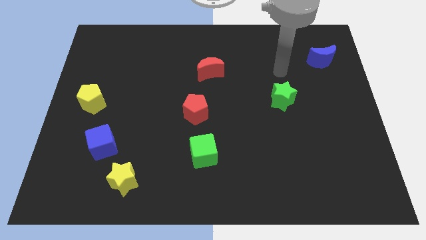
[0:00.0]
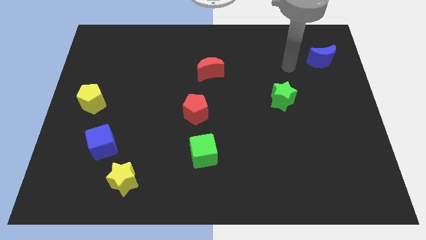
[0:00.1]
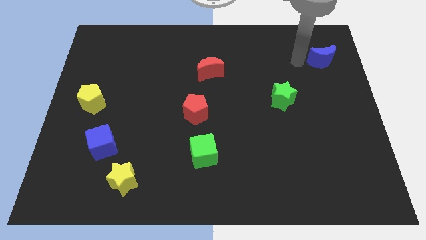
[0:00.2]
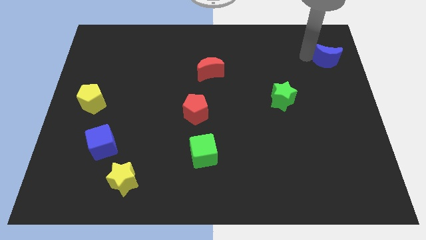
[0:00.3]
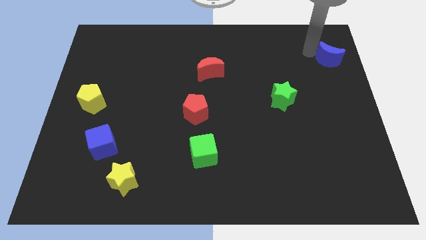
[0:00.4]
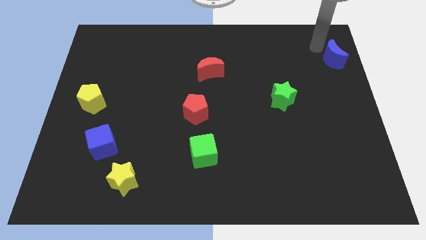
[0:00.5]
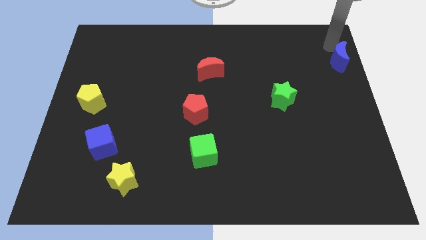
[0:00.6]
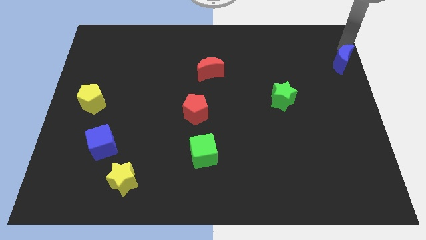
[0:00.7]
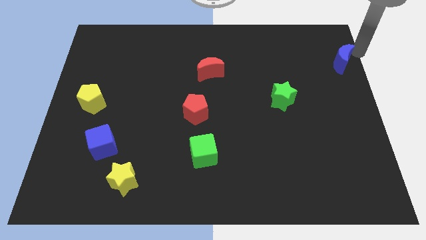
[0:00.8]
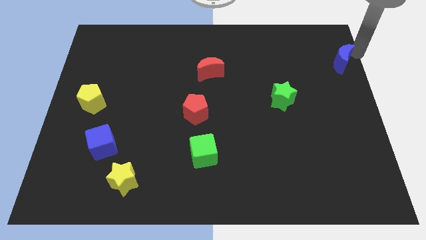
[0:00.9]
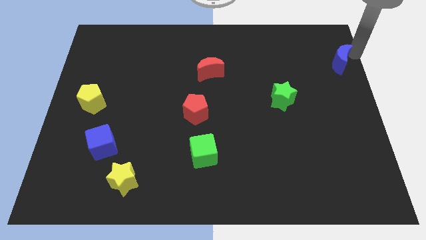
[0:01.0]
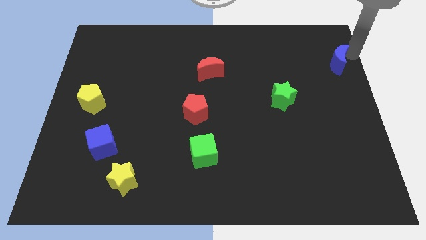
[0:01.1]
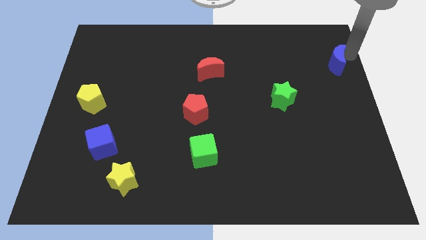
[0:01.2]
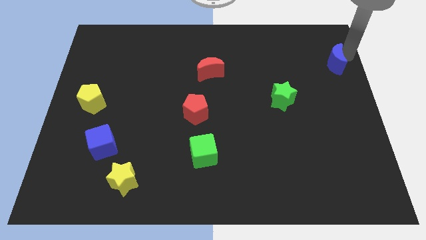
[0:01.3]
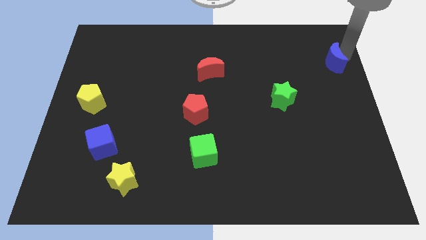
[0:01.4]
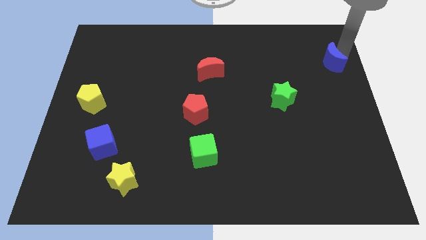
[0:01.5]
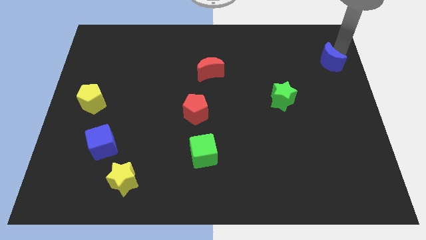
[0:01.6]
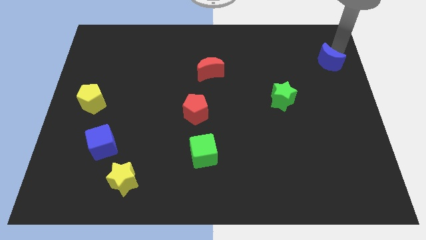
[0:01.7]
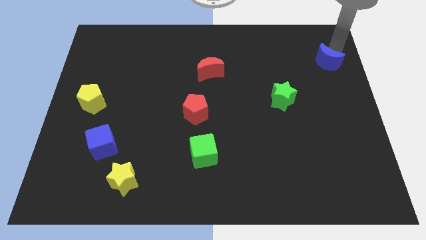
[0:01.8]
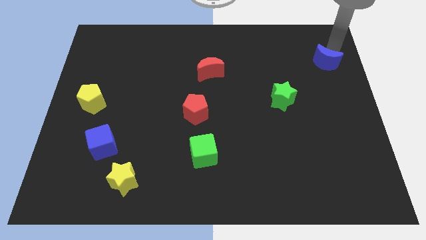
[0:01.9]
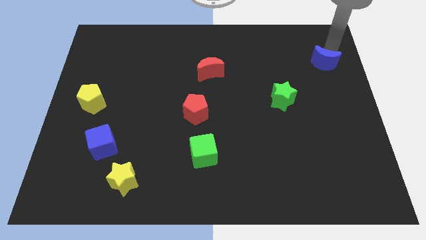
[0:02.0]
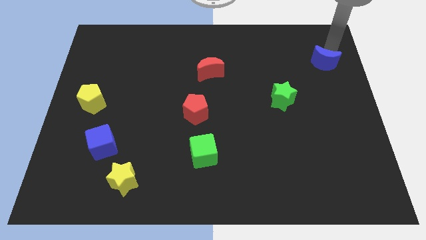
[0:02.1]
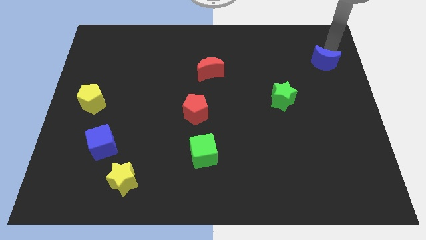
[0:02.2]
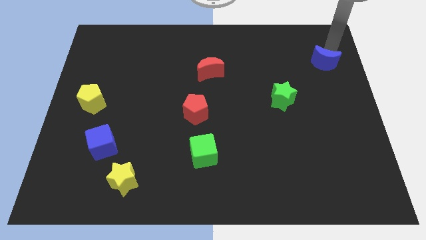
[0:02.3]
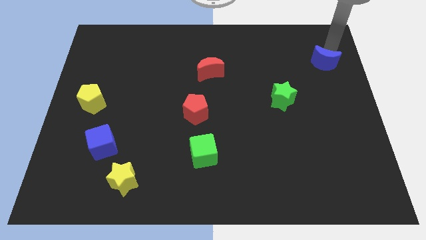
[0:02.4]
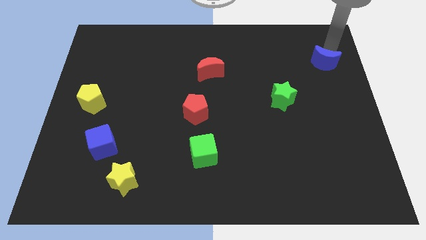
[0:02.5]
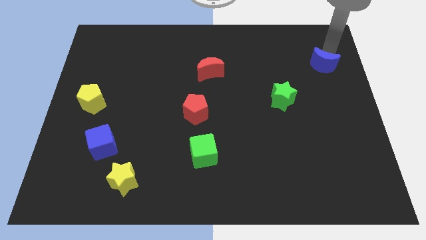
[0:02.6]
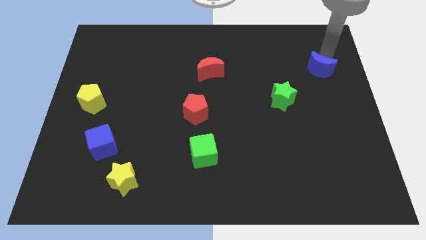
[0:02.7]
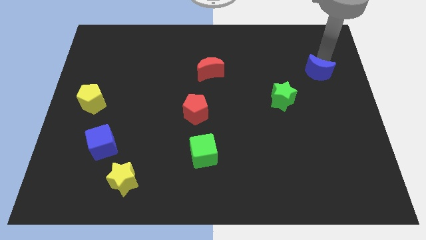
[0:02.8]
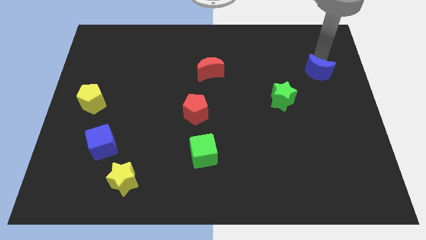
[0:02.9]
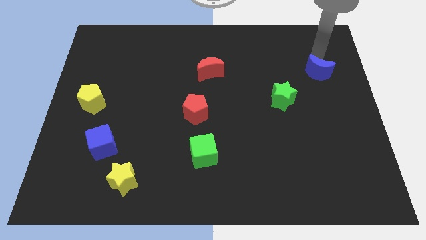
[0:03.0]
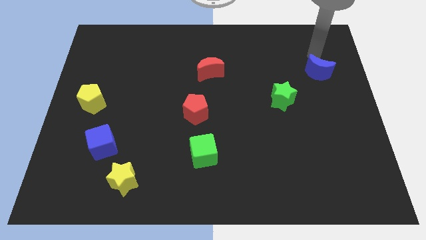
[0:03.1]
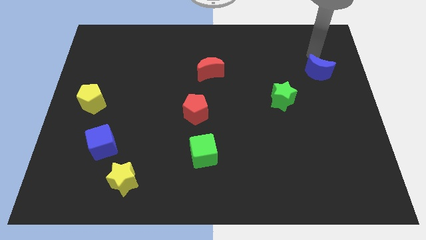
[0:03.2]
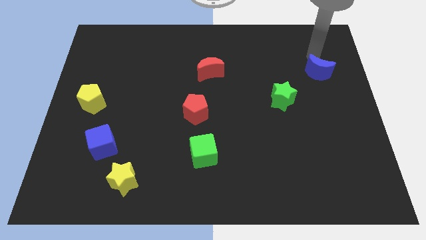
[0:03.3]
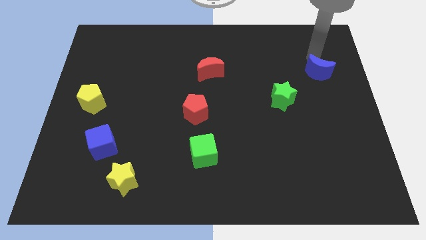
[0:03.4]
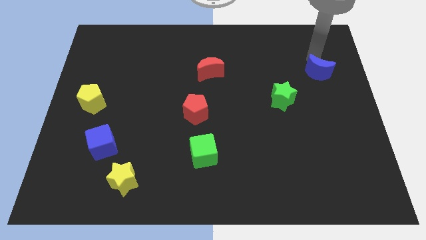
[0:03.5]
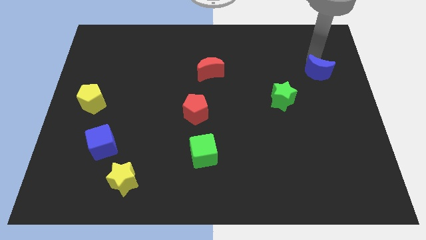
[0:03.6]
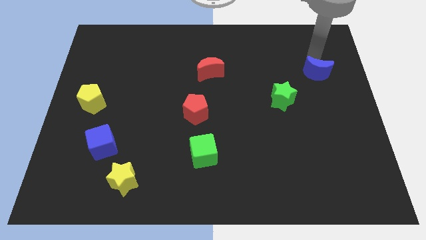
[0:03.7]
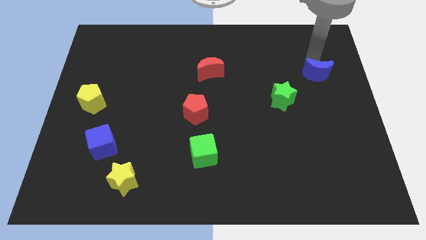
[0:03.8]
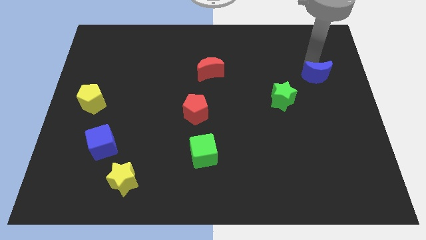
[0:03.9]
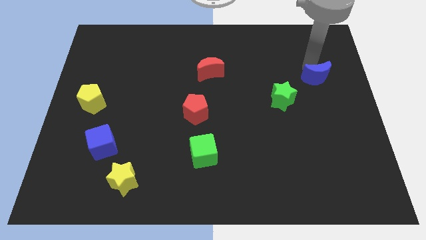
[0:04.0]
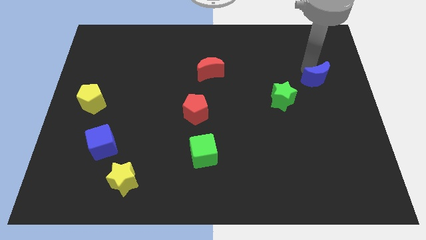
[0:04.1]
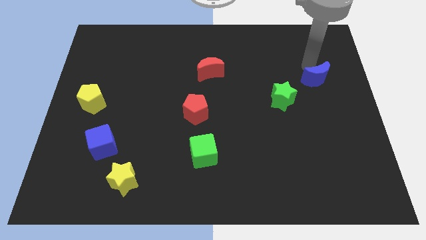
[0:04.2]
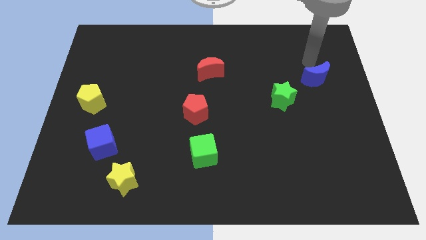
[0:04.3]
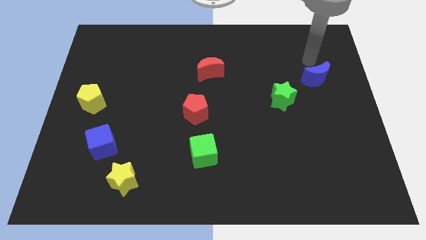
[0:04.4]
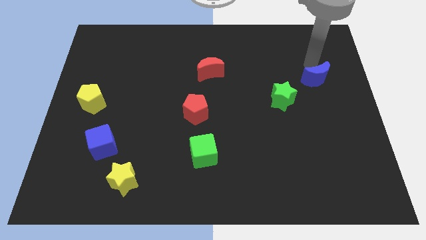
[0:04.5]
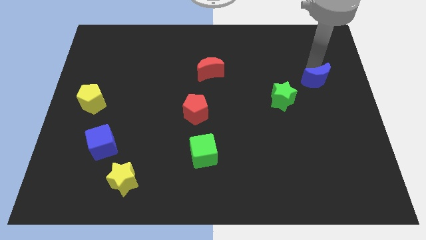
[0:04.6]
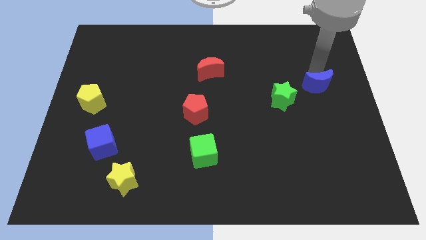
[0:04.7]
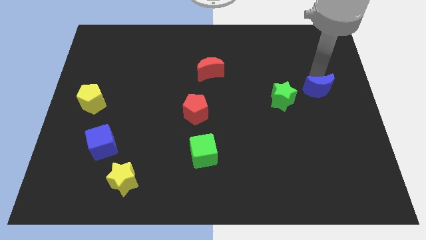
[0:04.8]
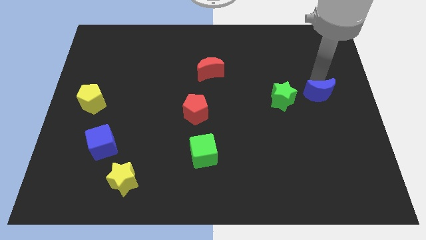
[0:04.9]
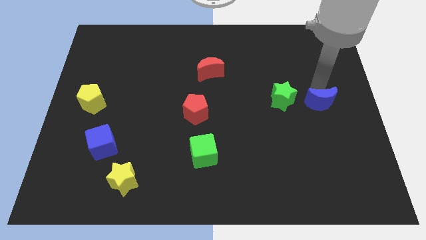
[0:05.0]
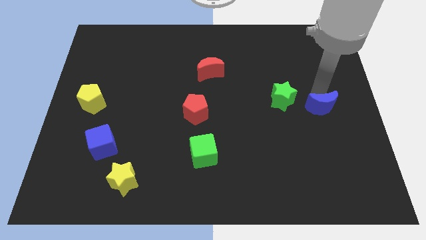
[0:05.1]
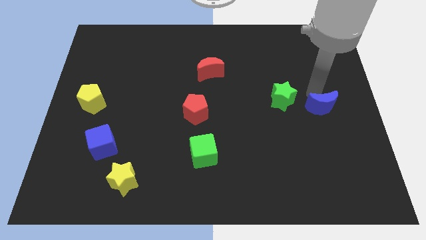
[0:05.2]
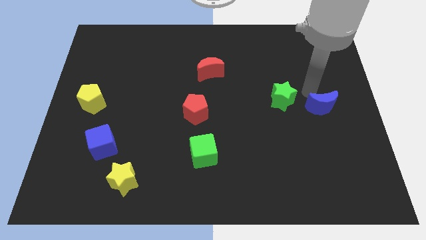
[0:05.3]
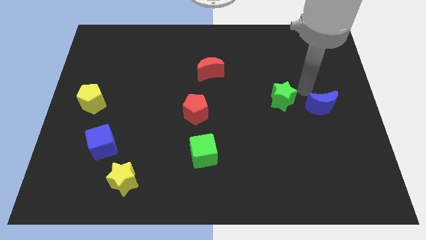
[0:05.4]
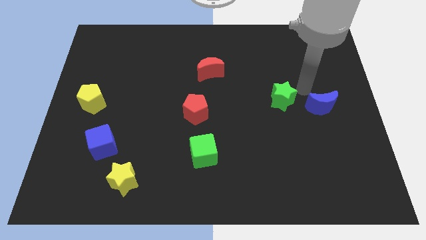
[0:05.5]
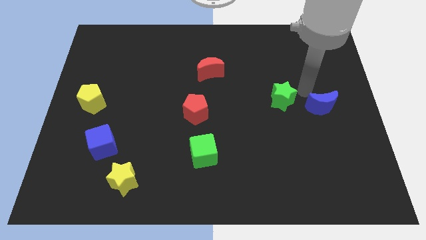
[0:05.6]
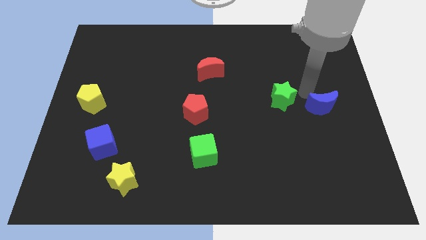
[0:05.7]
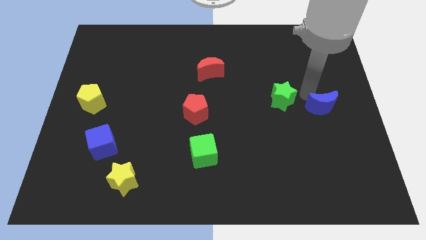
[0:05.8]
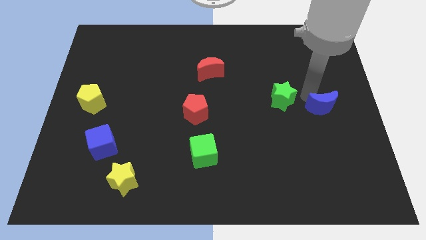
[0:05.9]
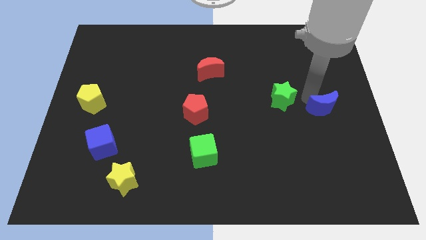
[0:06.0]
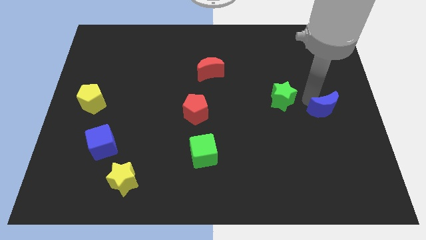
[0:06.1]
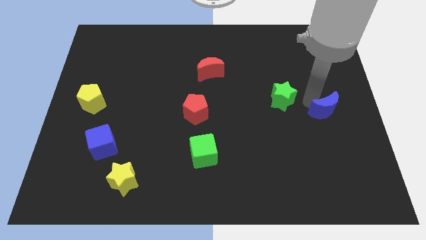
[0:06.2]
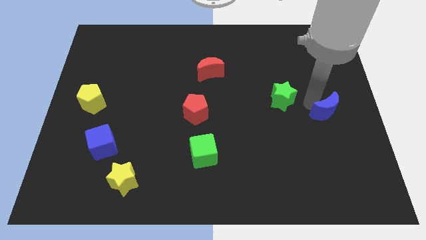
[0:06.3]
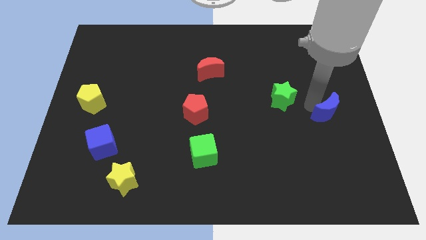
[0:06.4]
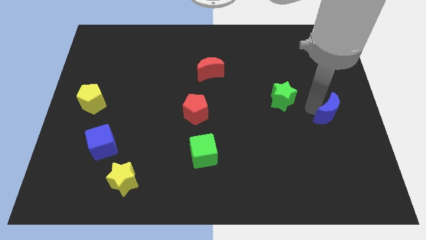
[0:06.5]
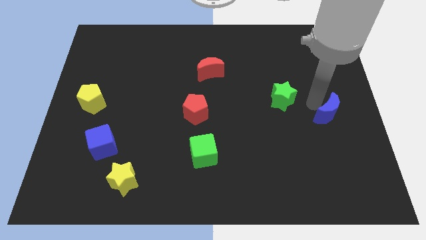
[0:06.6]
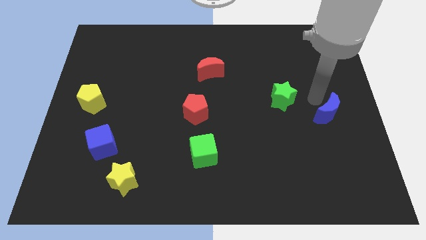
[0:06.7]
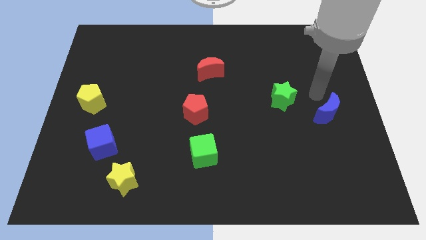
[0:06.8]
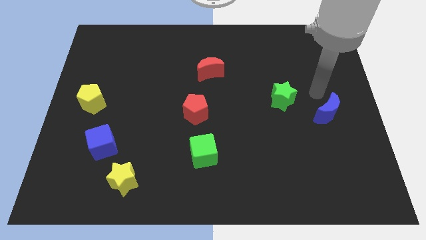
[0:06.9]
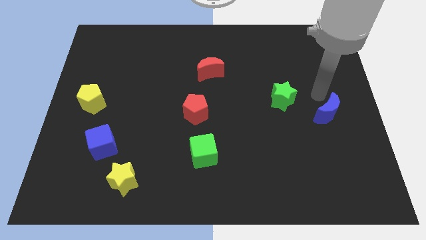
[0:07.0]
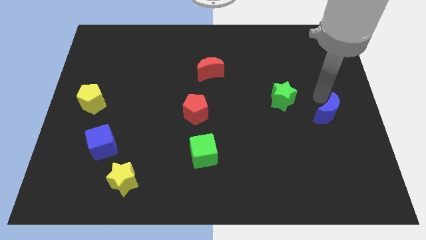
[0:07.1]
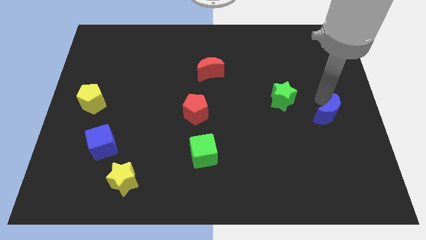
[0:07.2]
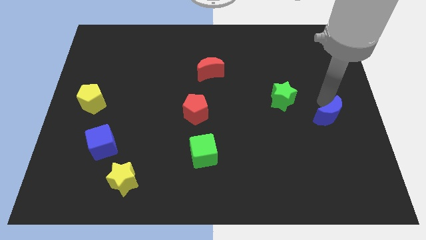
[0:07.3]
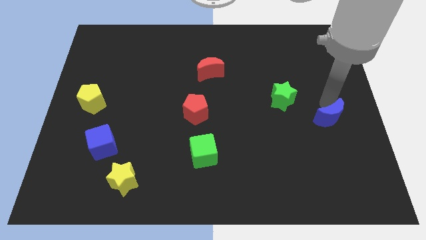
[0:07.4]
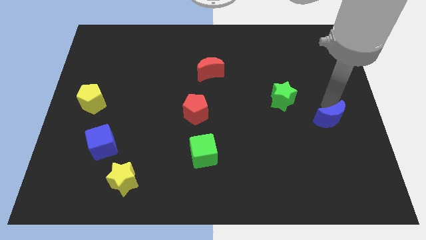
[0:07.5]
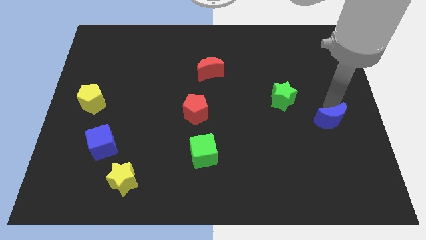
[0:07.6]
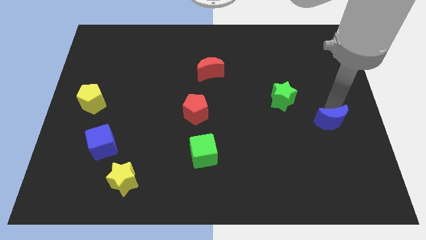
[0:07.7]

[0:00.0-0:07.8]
push the blue moon downwards

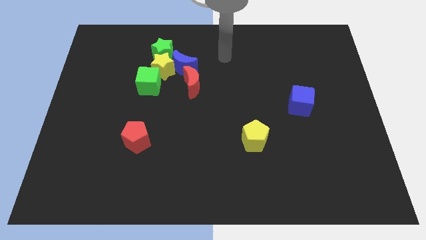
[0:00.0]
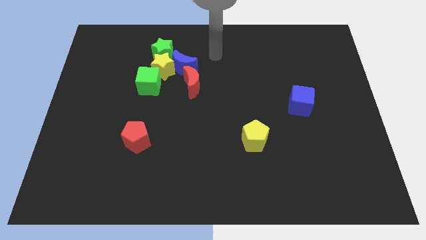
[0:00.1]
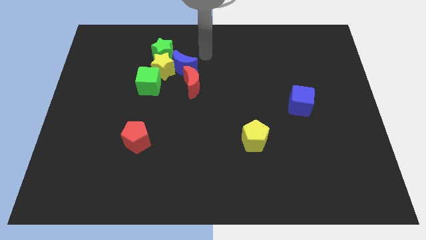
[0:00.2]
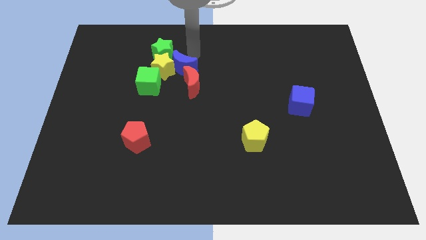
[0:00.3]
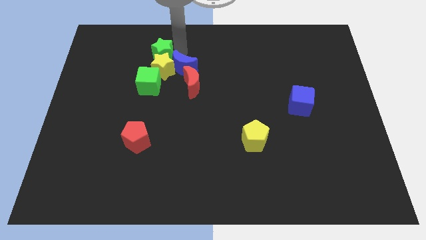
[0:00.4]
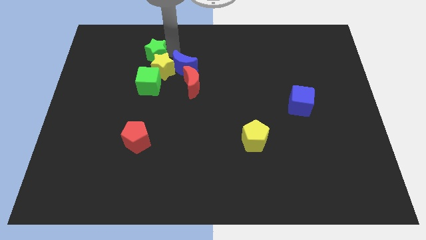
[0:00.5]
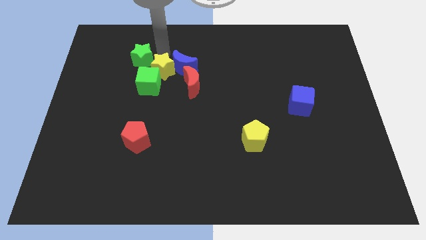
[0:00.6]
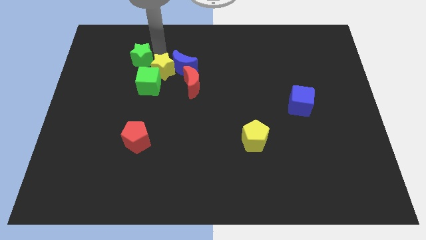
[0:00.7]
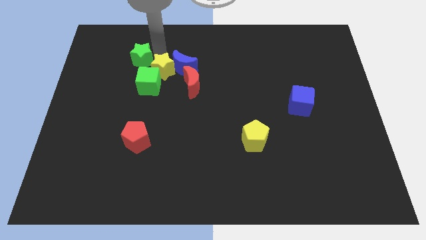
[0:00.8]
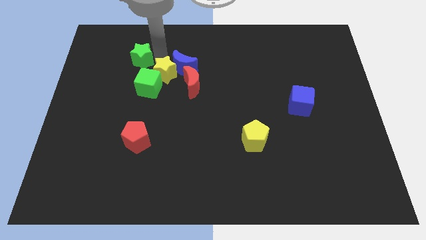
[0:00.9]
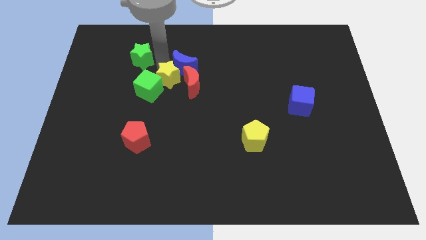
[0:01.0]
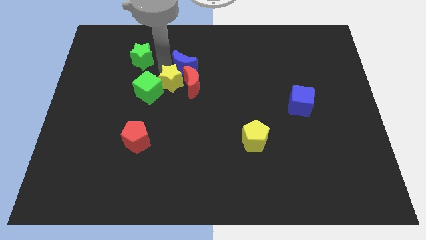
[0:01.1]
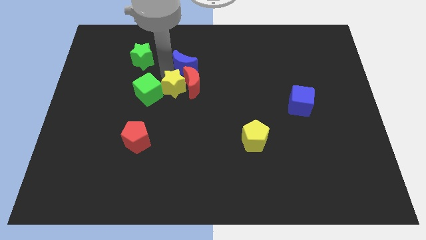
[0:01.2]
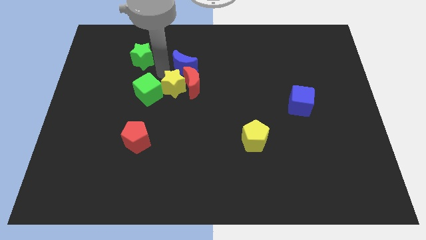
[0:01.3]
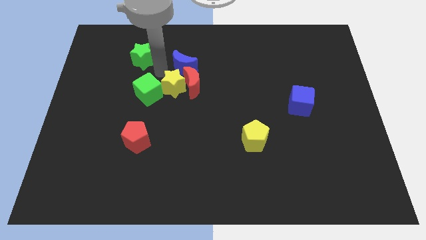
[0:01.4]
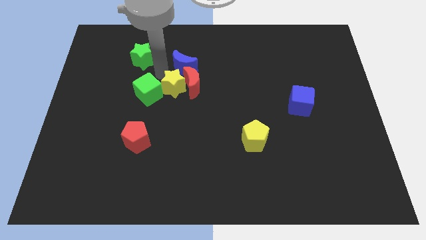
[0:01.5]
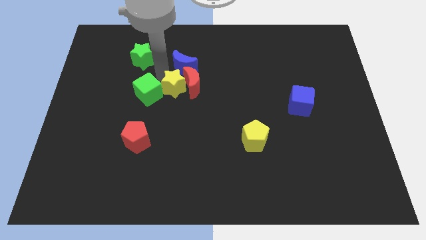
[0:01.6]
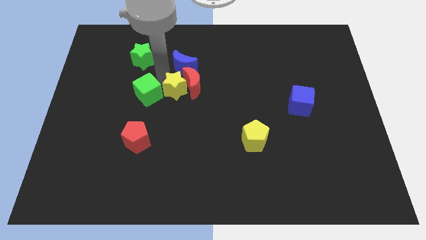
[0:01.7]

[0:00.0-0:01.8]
push the yellow star down and right diagonally somewhat
